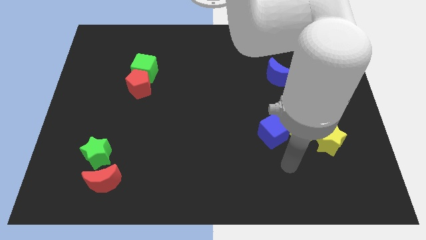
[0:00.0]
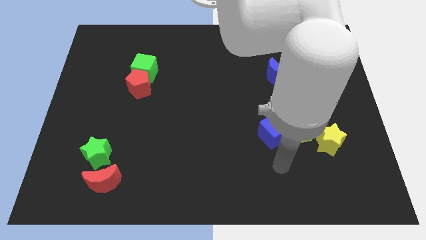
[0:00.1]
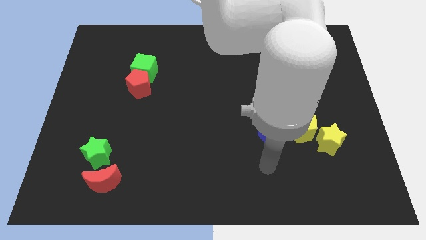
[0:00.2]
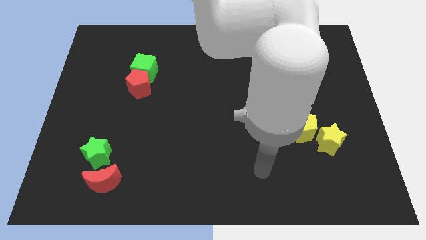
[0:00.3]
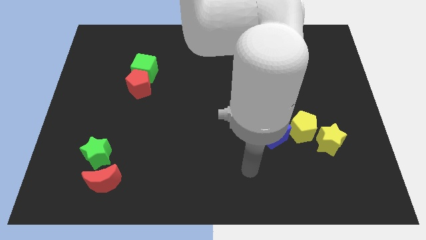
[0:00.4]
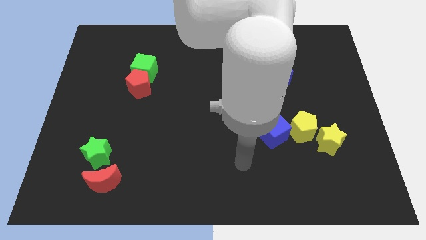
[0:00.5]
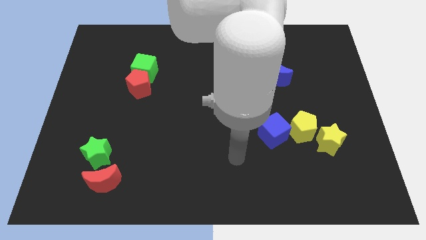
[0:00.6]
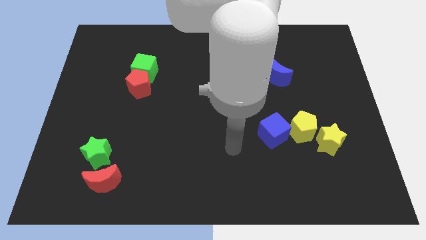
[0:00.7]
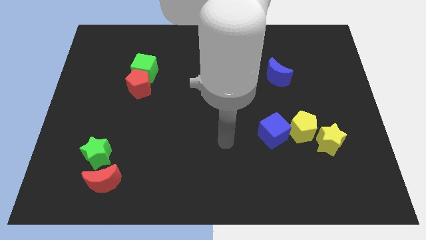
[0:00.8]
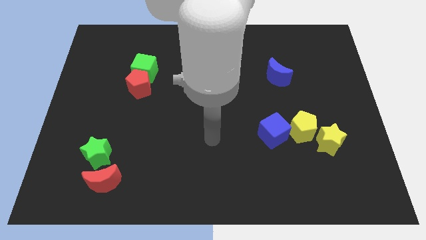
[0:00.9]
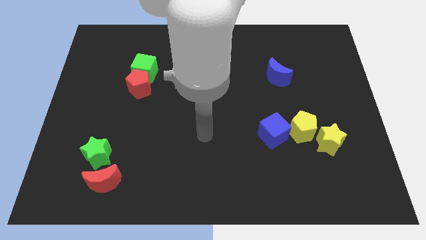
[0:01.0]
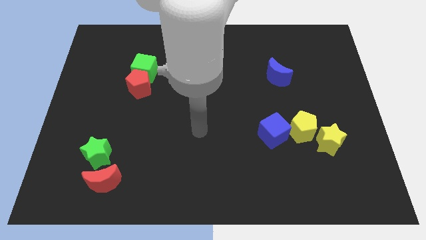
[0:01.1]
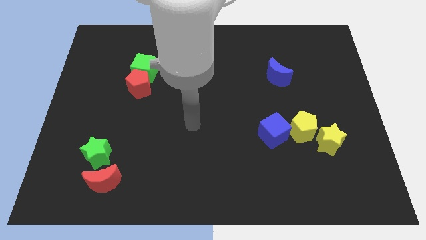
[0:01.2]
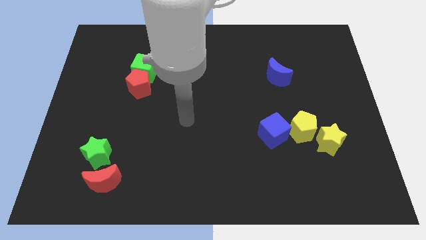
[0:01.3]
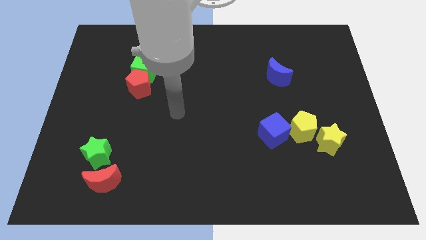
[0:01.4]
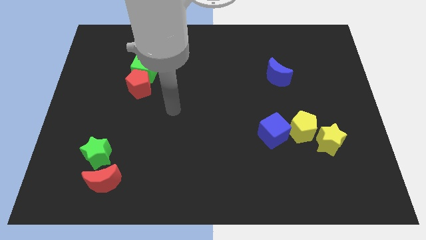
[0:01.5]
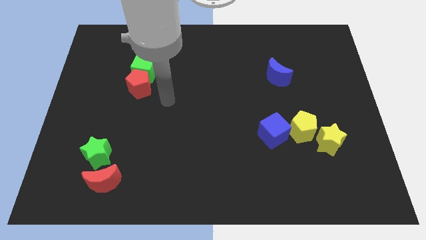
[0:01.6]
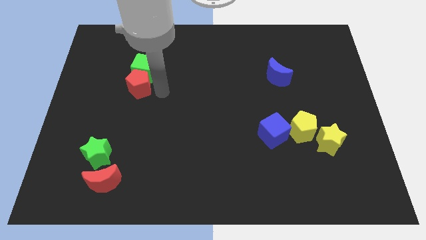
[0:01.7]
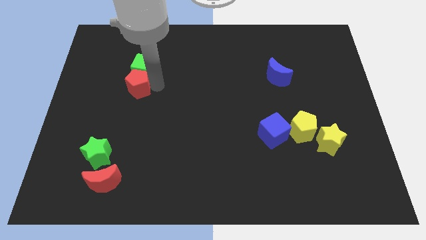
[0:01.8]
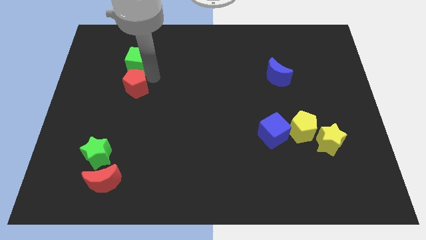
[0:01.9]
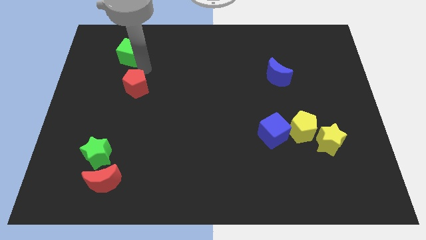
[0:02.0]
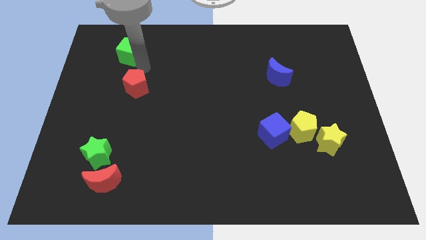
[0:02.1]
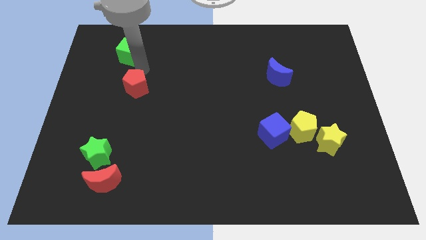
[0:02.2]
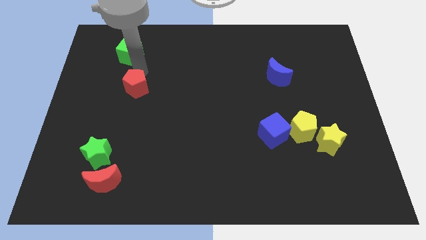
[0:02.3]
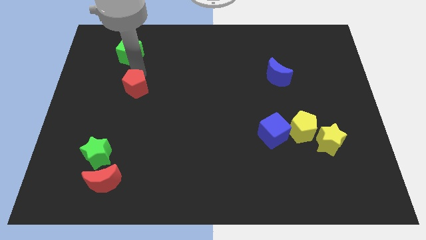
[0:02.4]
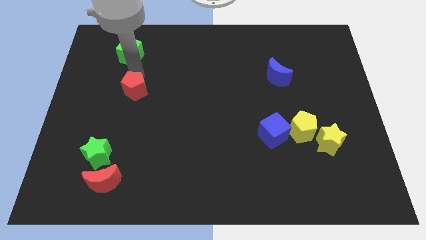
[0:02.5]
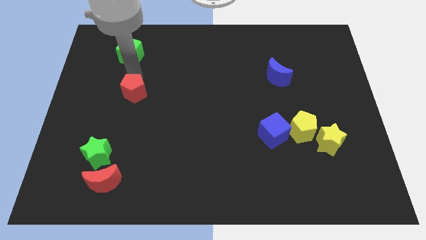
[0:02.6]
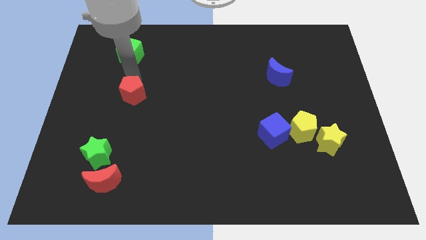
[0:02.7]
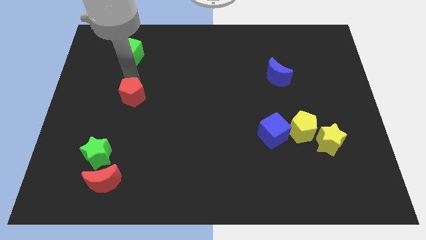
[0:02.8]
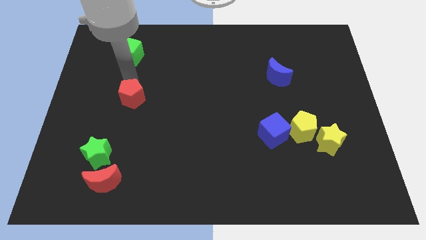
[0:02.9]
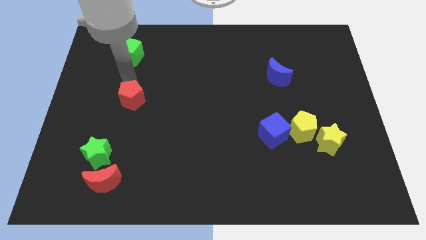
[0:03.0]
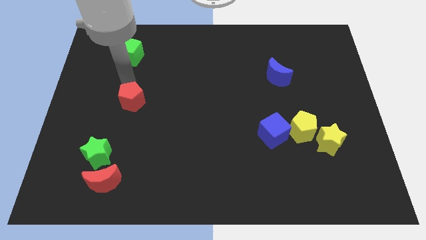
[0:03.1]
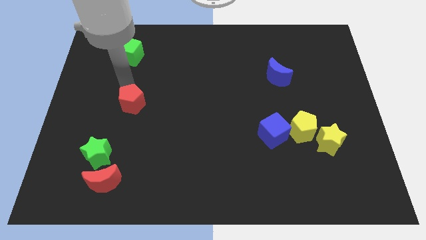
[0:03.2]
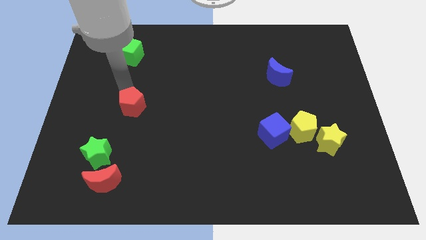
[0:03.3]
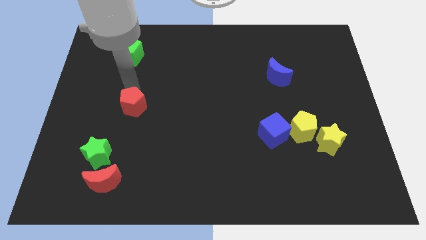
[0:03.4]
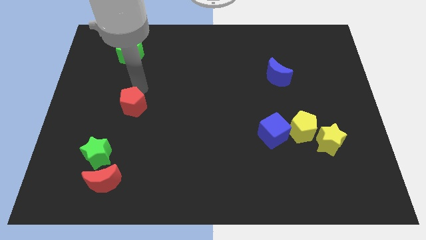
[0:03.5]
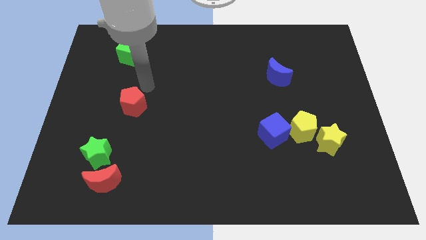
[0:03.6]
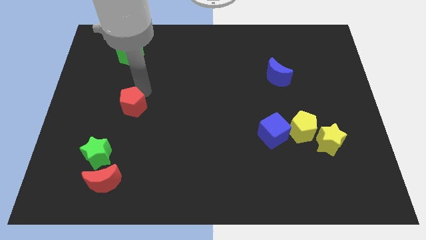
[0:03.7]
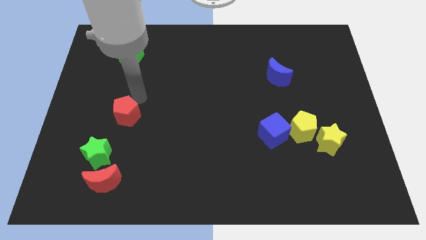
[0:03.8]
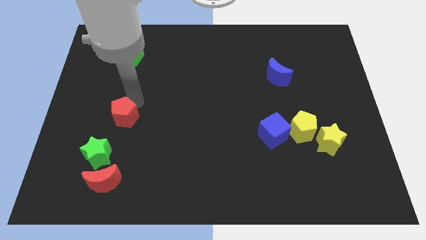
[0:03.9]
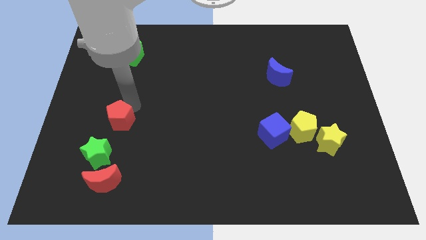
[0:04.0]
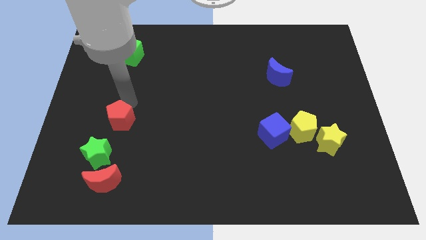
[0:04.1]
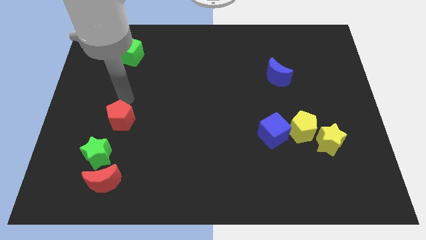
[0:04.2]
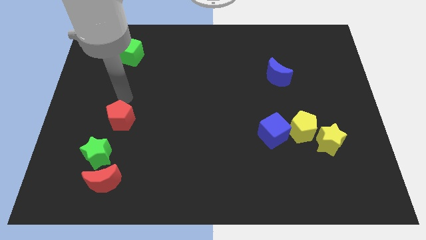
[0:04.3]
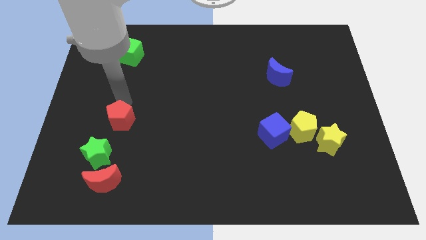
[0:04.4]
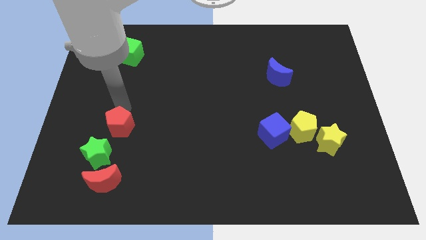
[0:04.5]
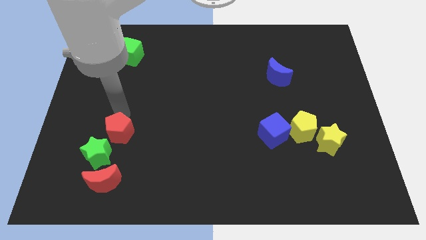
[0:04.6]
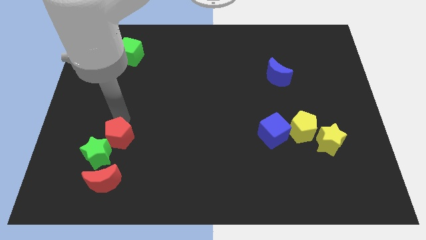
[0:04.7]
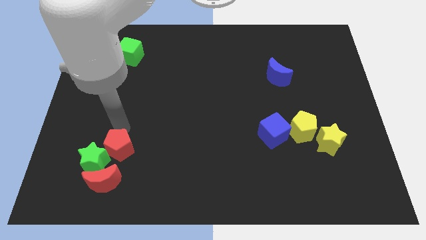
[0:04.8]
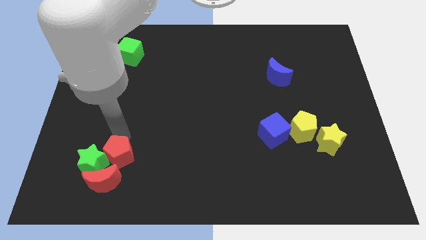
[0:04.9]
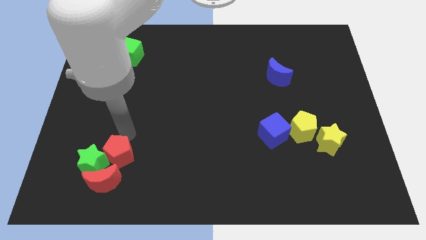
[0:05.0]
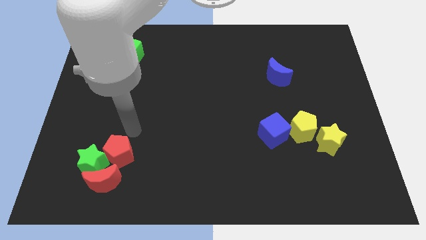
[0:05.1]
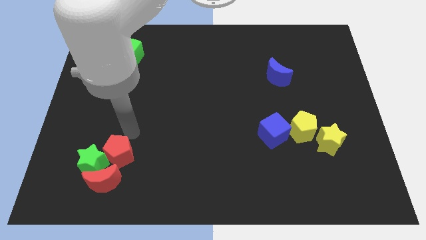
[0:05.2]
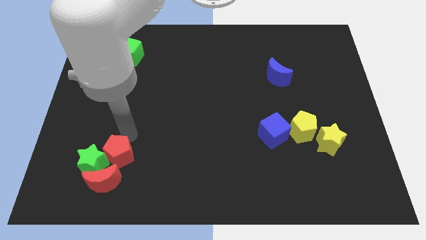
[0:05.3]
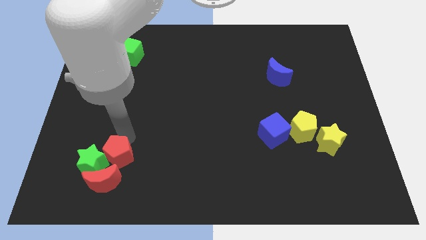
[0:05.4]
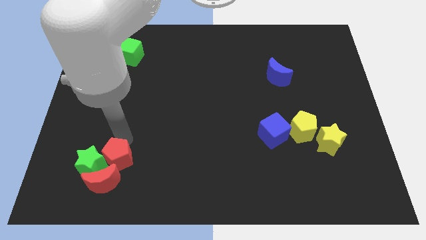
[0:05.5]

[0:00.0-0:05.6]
slide the red pentagon next to the red moon

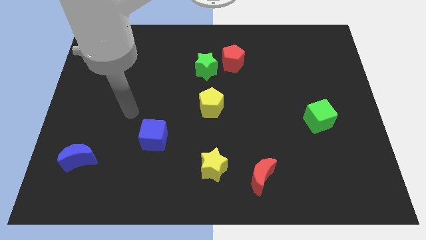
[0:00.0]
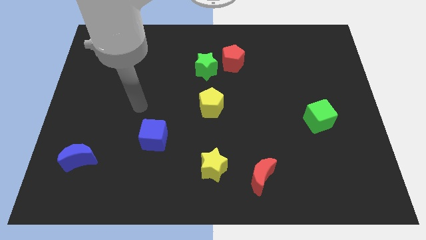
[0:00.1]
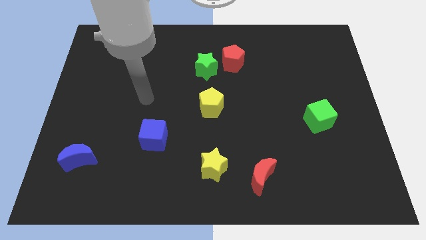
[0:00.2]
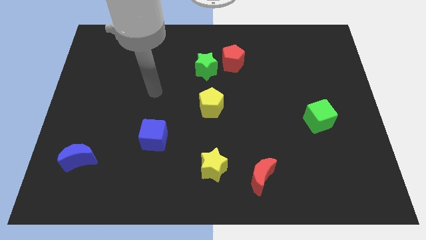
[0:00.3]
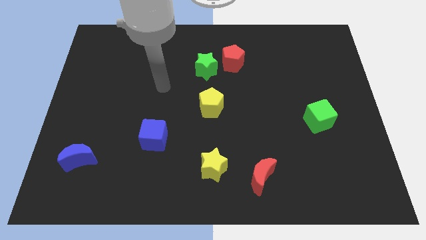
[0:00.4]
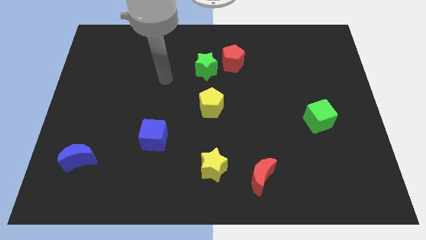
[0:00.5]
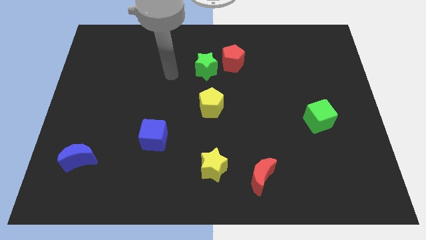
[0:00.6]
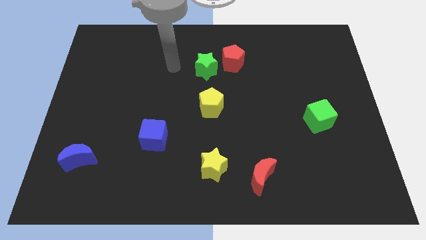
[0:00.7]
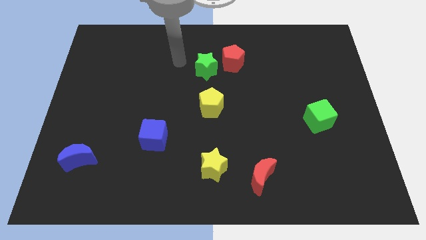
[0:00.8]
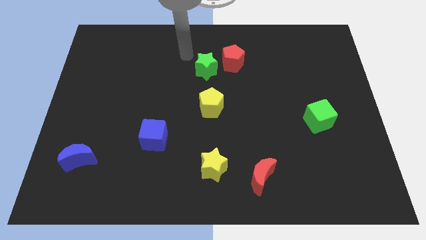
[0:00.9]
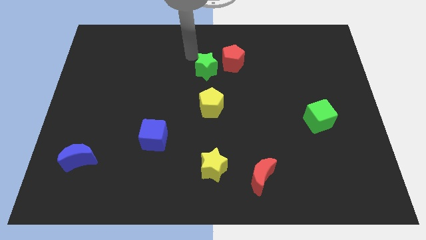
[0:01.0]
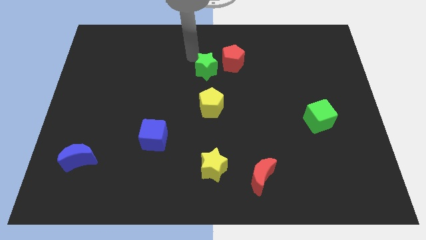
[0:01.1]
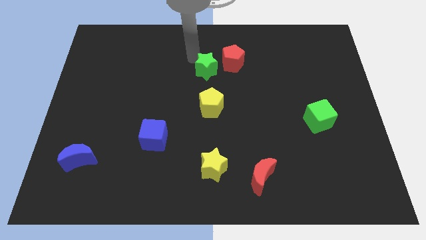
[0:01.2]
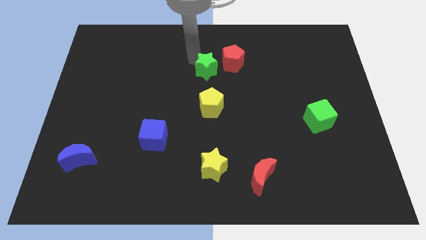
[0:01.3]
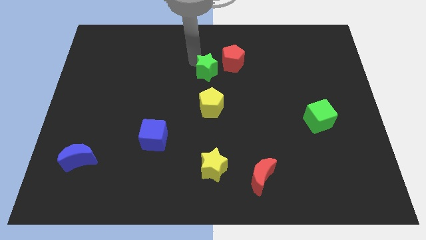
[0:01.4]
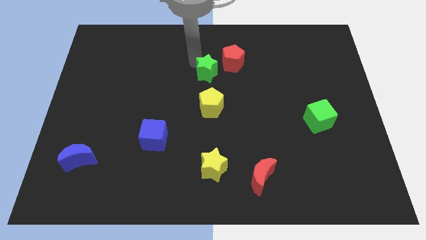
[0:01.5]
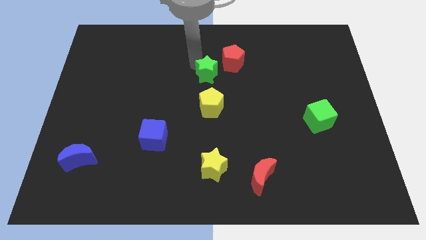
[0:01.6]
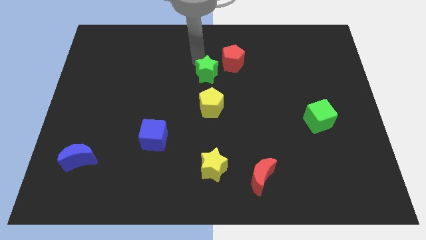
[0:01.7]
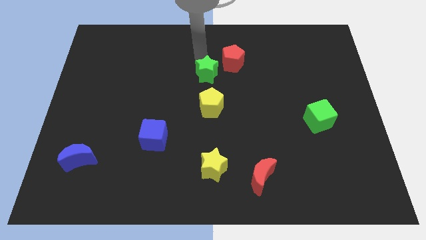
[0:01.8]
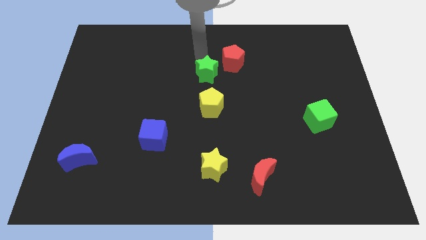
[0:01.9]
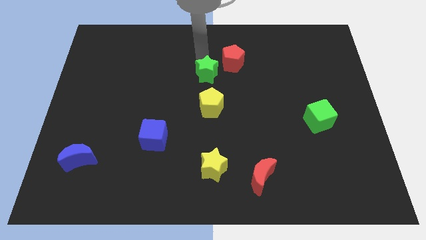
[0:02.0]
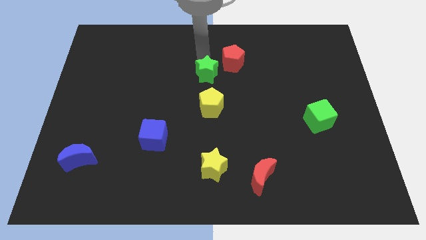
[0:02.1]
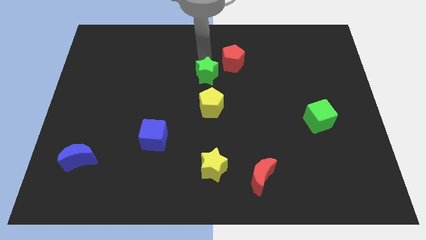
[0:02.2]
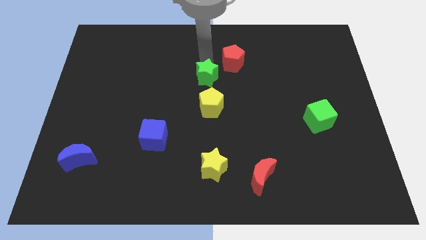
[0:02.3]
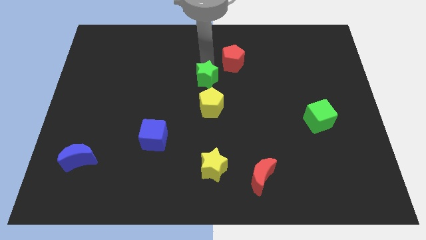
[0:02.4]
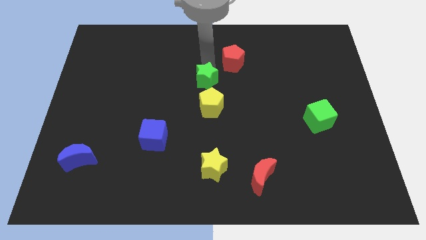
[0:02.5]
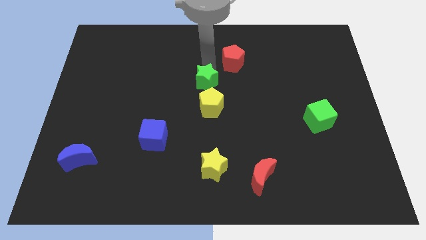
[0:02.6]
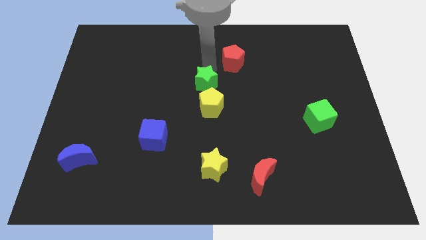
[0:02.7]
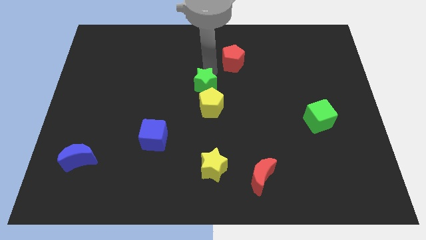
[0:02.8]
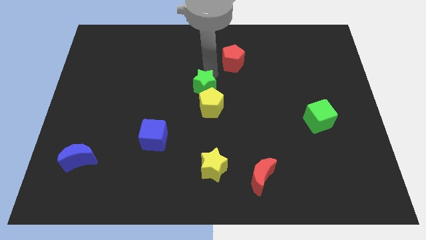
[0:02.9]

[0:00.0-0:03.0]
push the green star to the yellow pentagon
